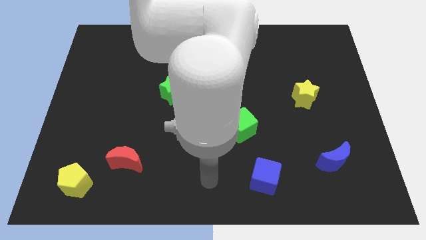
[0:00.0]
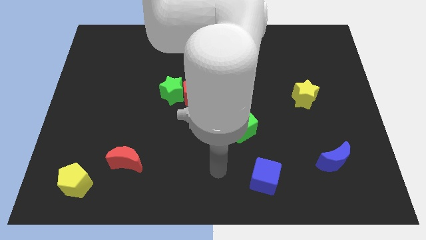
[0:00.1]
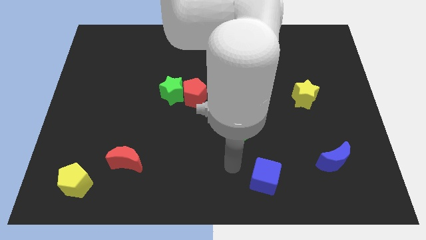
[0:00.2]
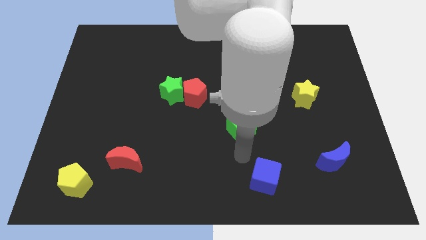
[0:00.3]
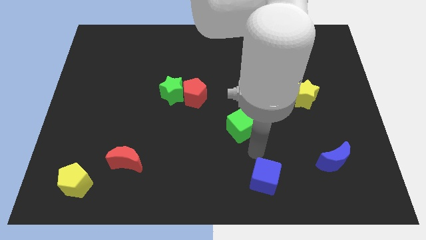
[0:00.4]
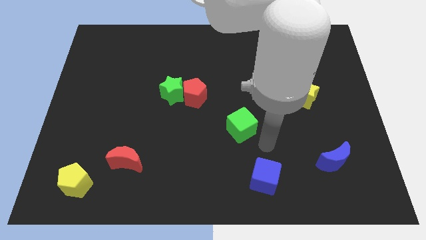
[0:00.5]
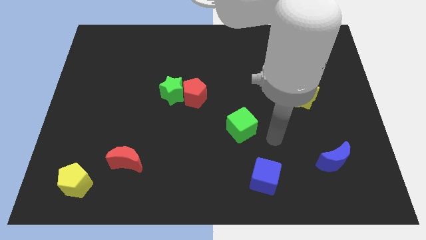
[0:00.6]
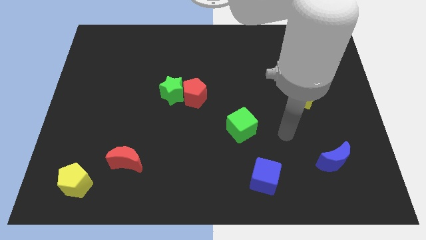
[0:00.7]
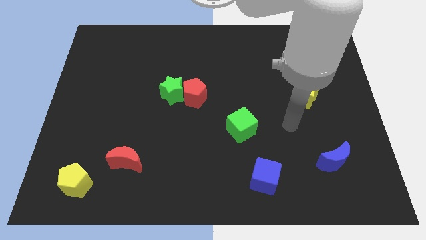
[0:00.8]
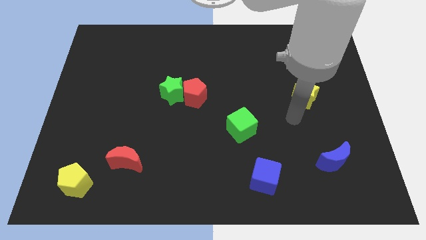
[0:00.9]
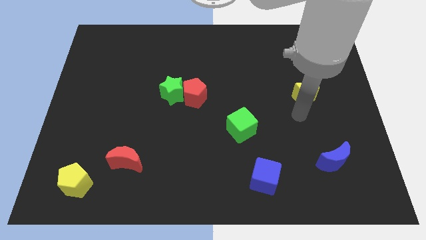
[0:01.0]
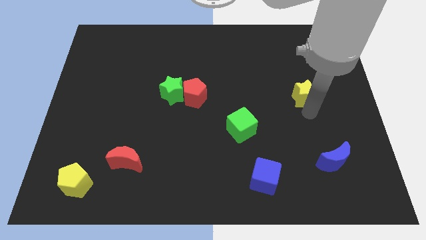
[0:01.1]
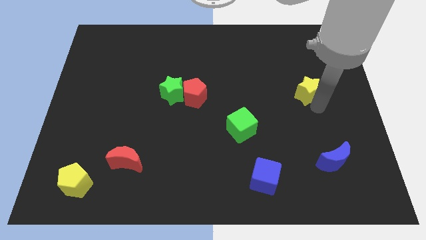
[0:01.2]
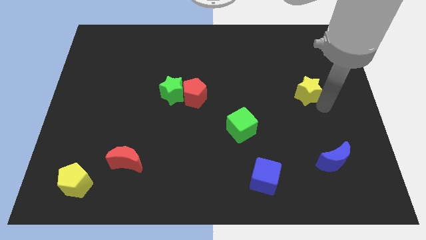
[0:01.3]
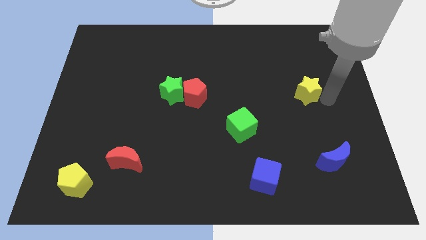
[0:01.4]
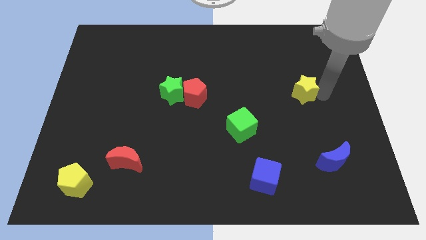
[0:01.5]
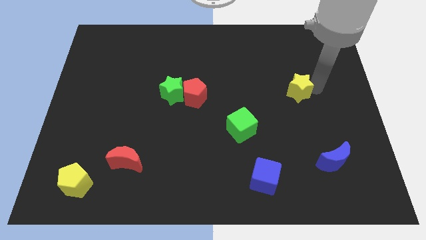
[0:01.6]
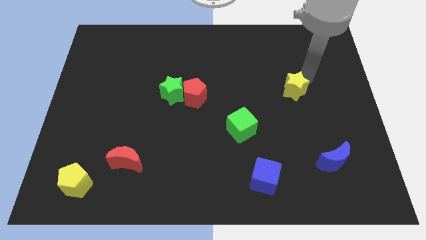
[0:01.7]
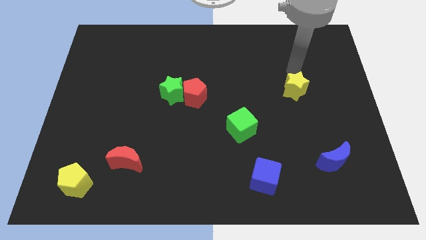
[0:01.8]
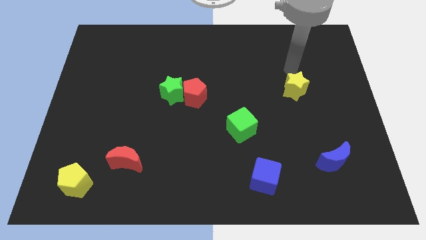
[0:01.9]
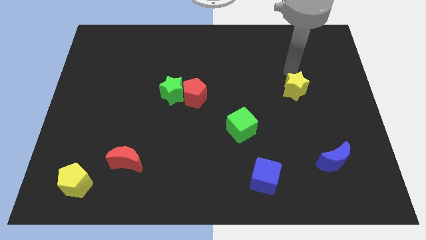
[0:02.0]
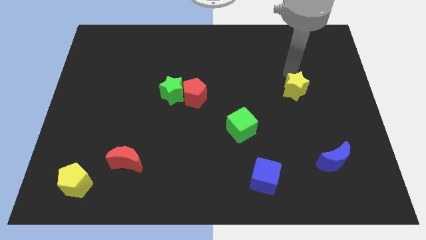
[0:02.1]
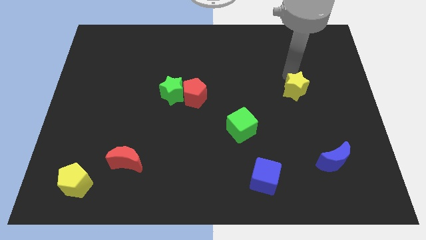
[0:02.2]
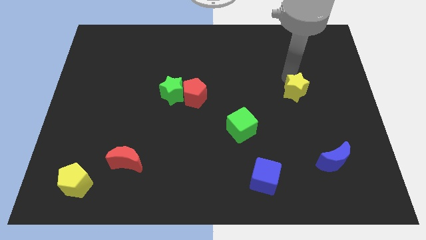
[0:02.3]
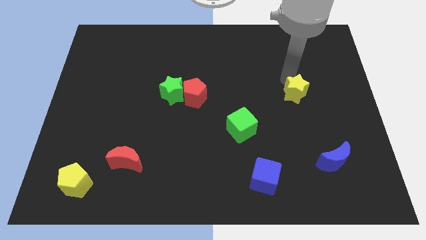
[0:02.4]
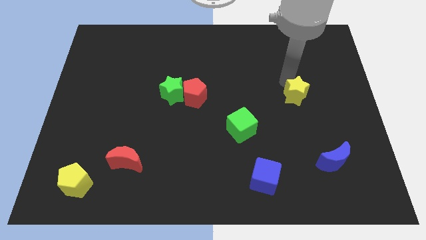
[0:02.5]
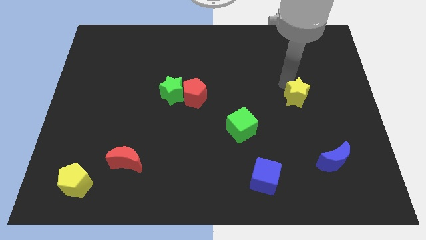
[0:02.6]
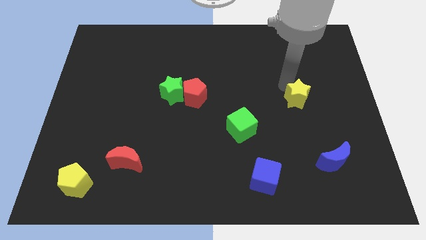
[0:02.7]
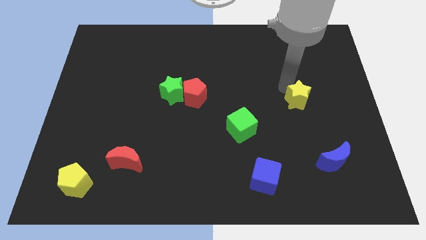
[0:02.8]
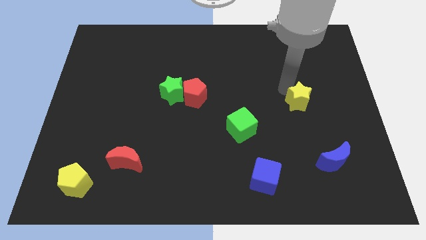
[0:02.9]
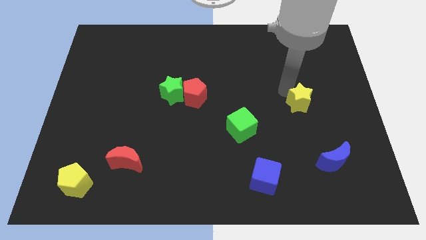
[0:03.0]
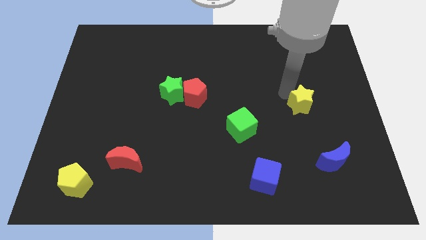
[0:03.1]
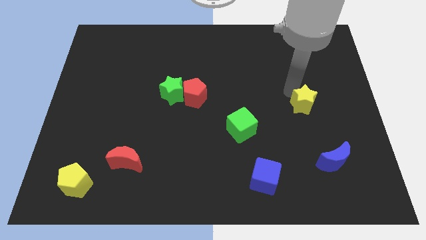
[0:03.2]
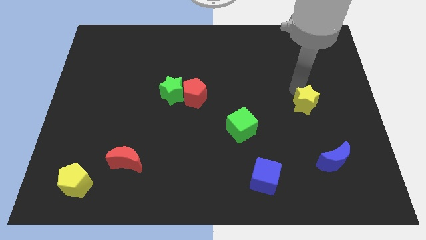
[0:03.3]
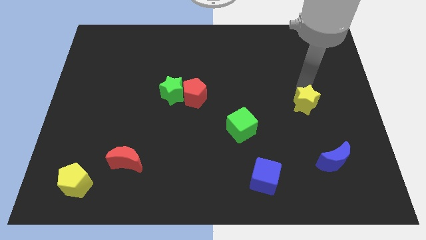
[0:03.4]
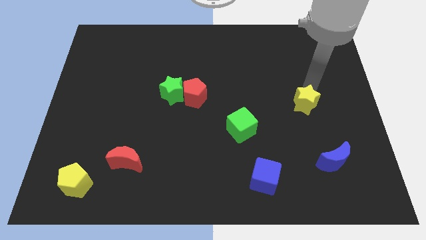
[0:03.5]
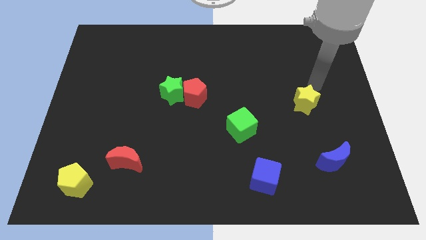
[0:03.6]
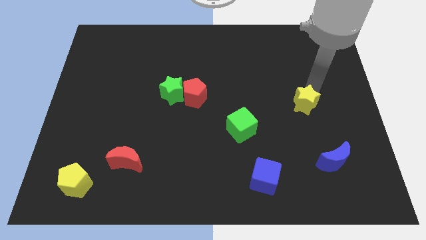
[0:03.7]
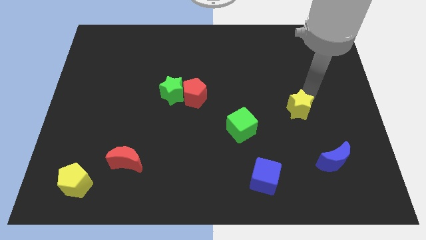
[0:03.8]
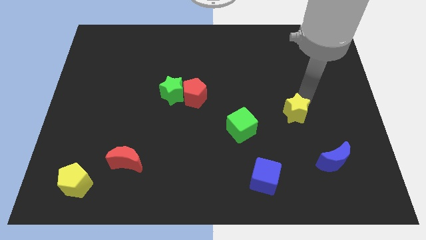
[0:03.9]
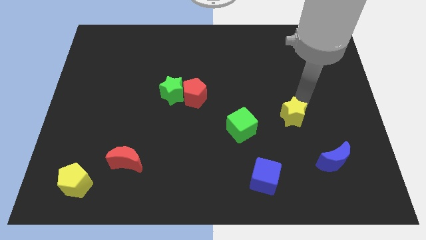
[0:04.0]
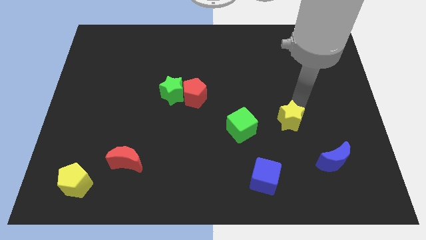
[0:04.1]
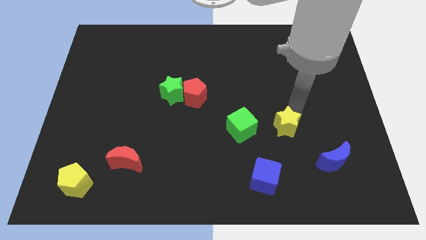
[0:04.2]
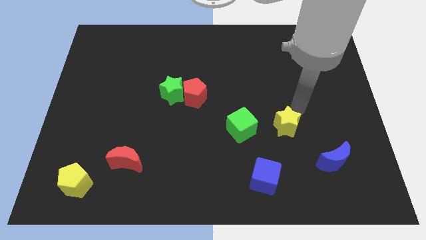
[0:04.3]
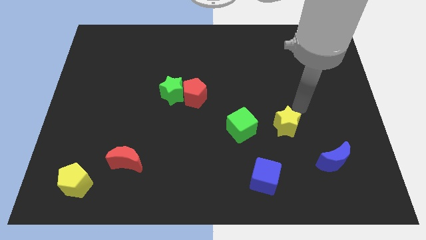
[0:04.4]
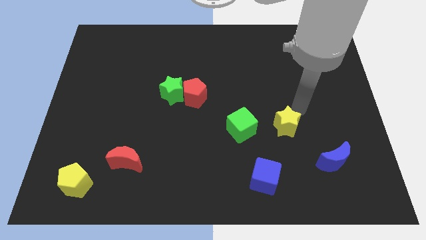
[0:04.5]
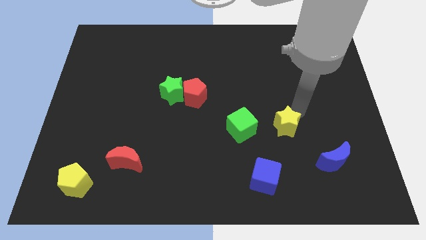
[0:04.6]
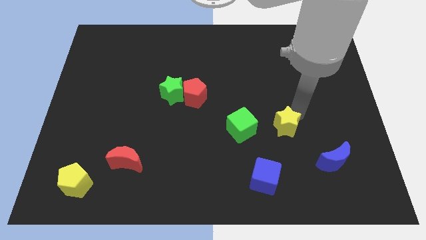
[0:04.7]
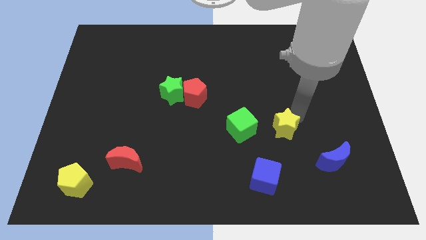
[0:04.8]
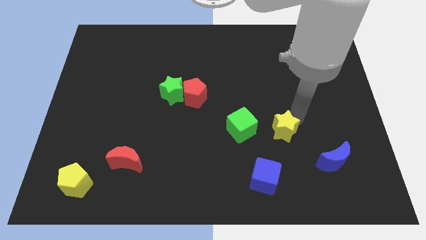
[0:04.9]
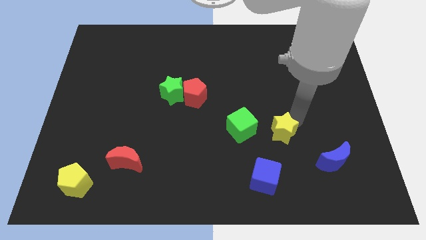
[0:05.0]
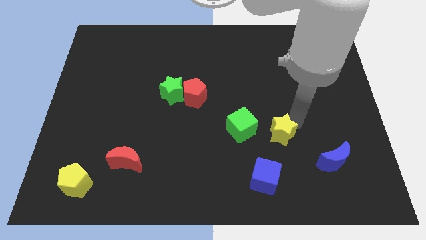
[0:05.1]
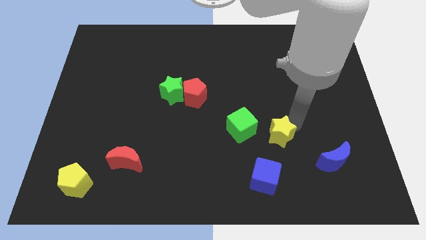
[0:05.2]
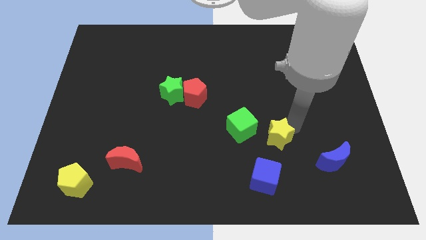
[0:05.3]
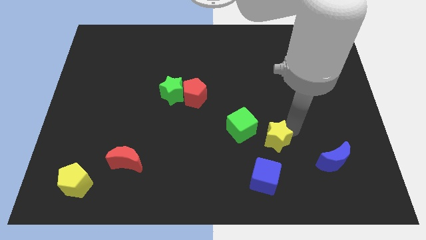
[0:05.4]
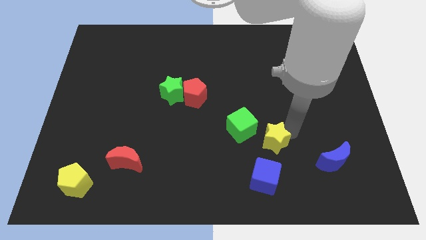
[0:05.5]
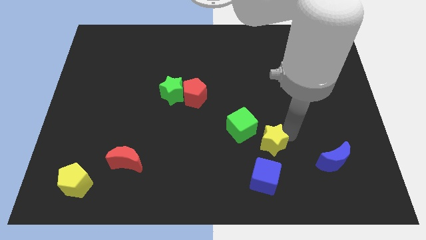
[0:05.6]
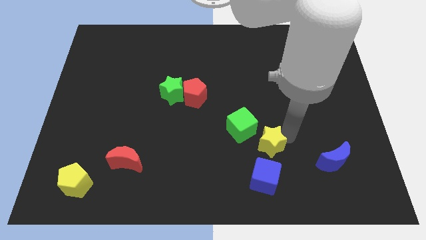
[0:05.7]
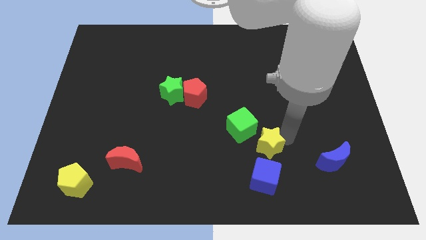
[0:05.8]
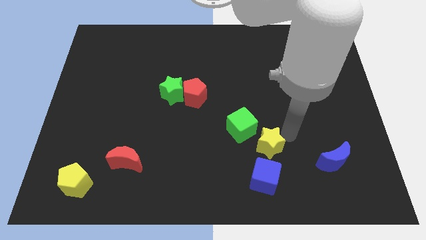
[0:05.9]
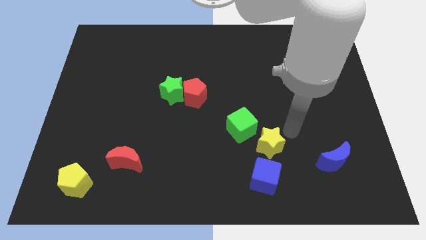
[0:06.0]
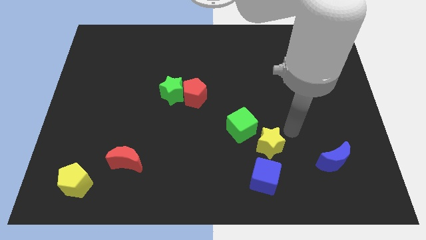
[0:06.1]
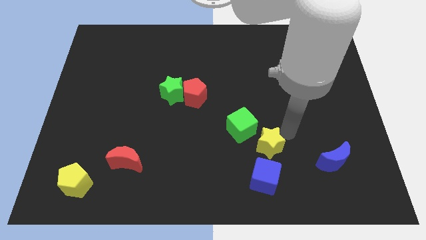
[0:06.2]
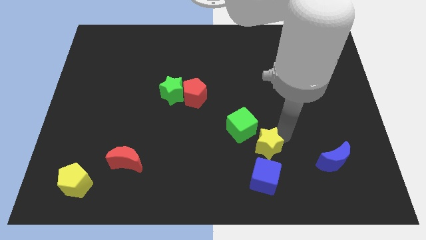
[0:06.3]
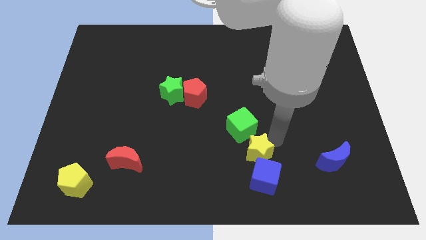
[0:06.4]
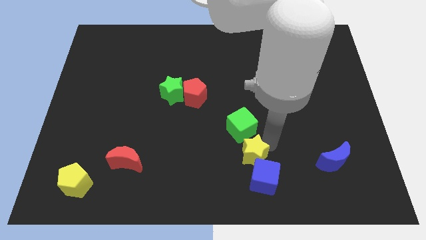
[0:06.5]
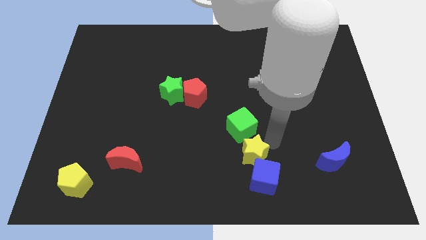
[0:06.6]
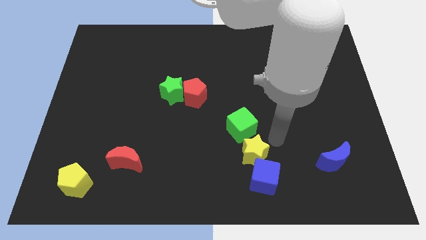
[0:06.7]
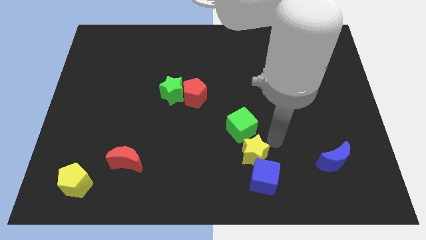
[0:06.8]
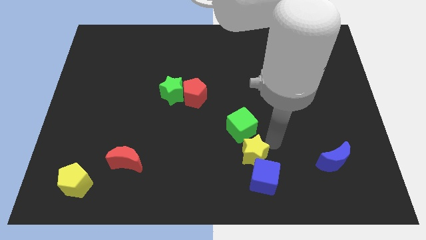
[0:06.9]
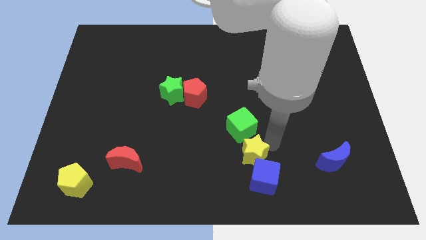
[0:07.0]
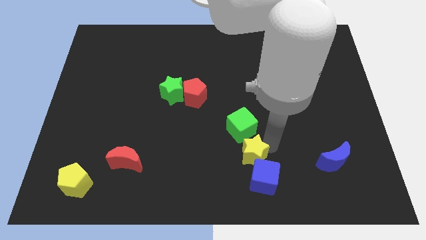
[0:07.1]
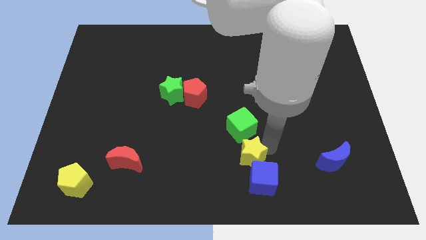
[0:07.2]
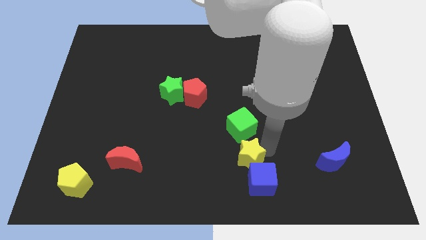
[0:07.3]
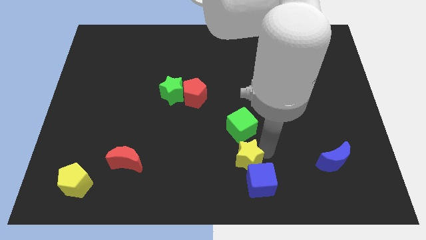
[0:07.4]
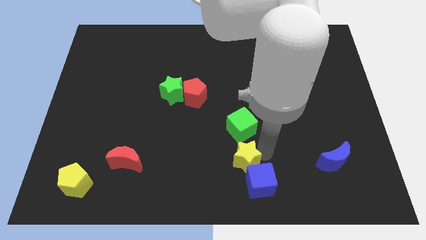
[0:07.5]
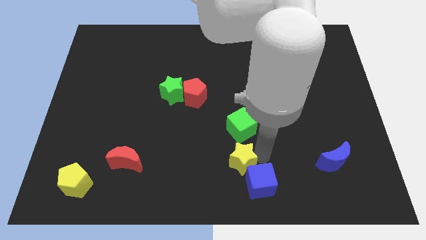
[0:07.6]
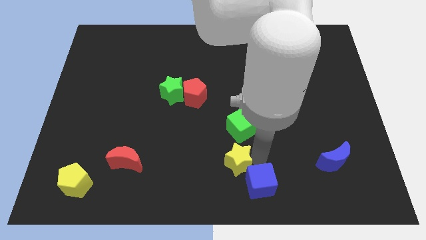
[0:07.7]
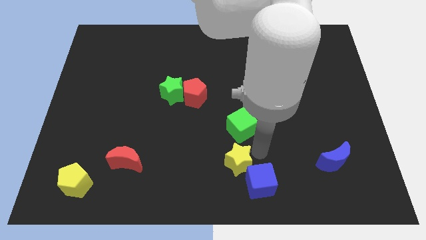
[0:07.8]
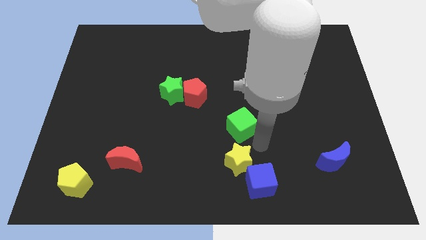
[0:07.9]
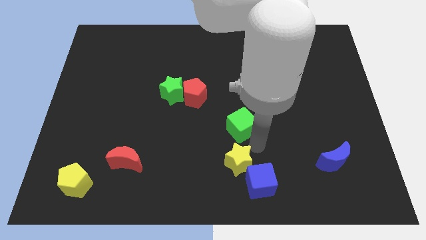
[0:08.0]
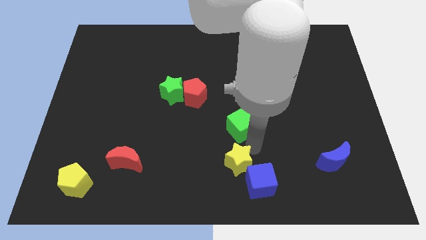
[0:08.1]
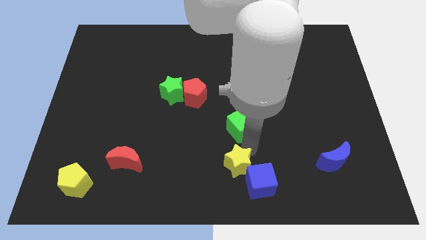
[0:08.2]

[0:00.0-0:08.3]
put the yellow star to the left side of the blue cube

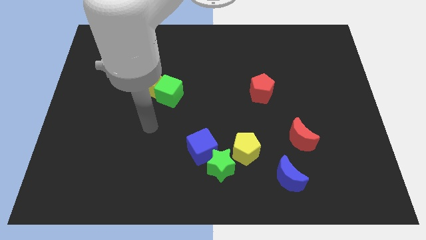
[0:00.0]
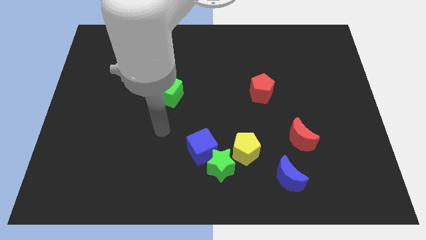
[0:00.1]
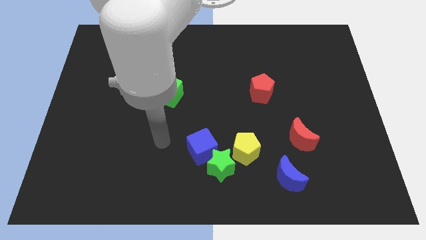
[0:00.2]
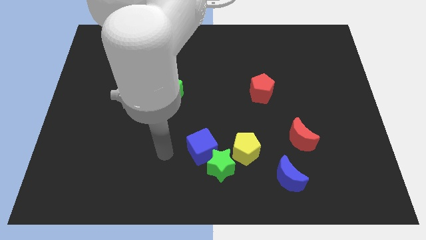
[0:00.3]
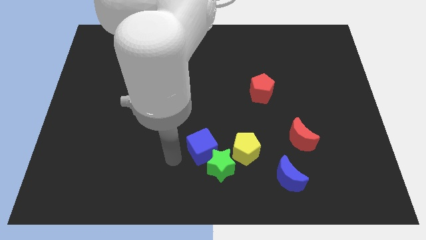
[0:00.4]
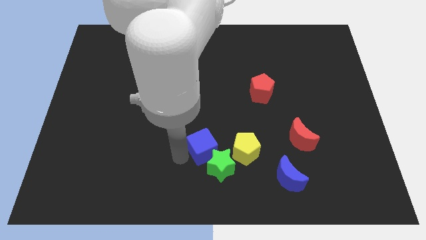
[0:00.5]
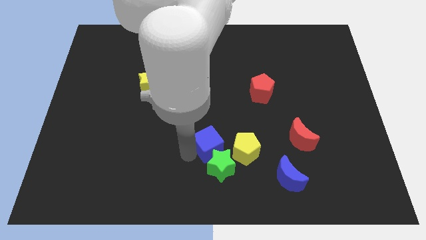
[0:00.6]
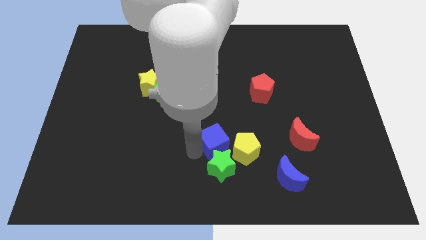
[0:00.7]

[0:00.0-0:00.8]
put the blue cube to the top right side of the green star
